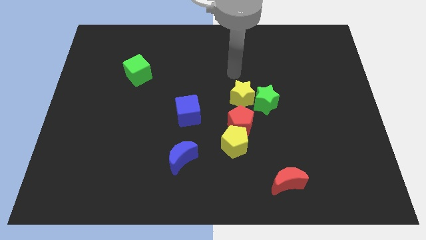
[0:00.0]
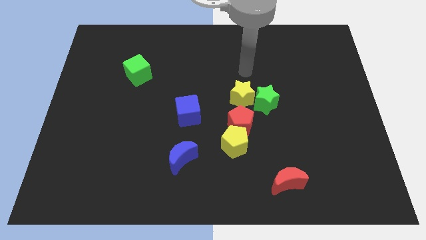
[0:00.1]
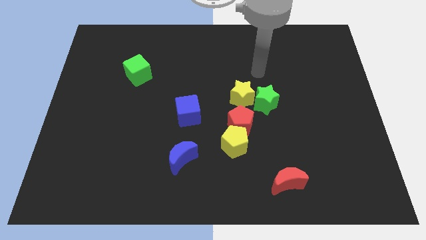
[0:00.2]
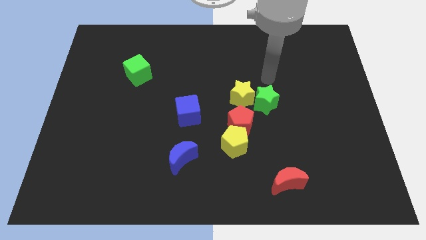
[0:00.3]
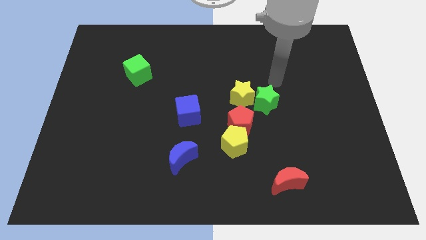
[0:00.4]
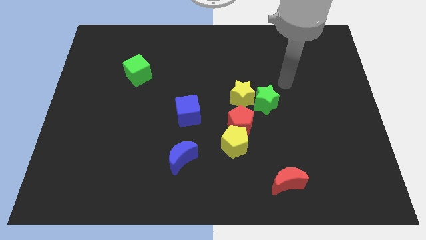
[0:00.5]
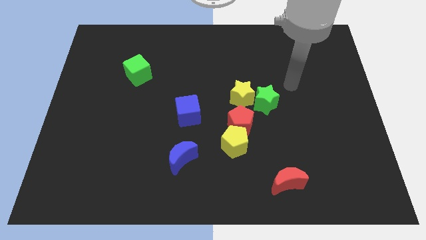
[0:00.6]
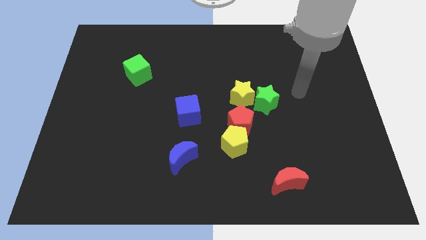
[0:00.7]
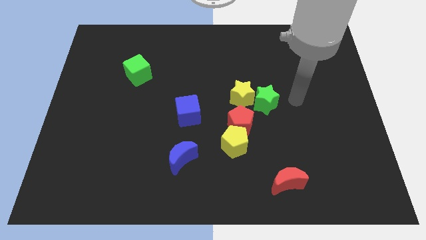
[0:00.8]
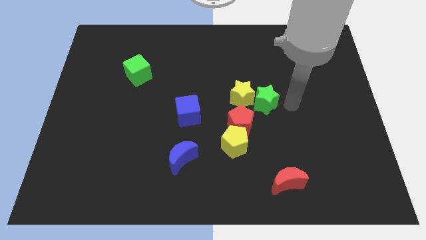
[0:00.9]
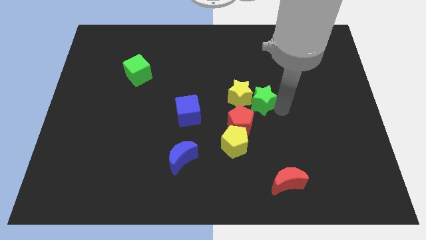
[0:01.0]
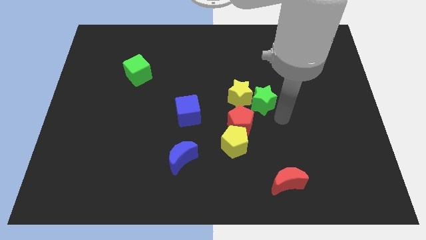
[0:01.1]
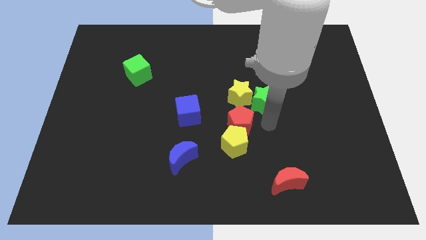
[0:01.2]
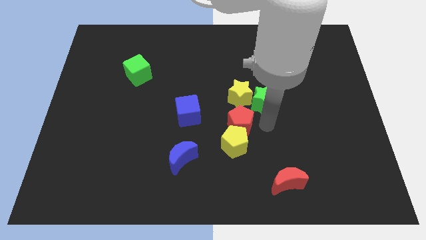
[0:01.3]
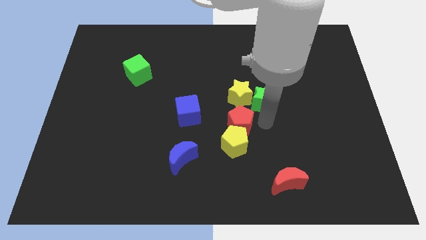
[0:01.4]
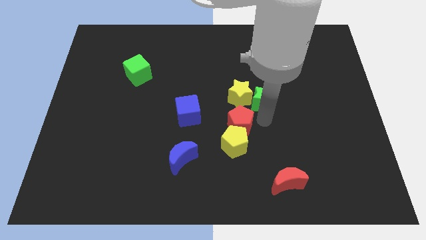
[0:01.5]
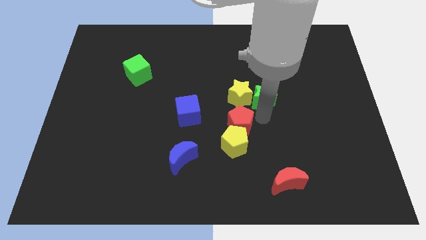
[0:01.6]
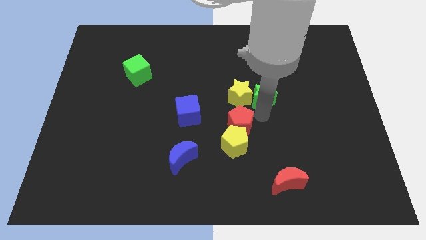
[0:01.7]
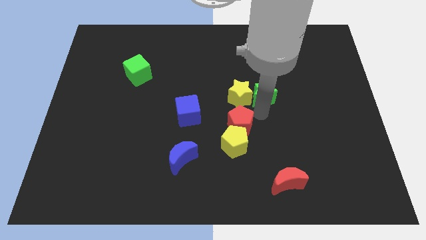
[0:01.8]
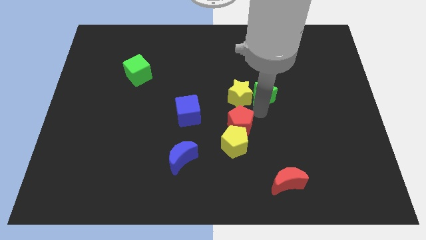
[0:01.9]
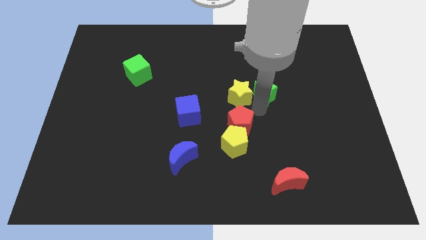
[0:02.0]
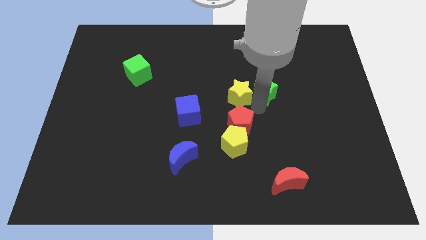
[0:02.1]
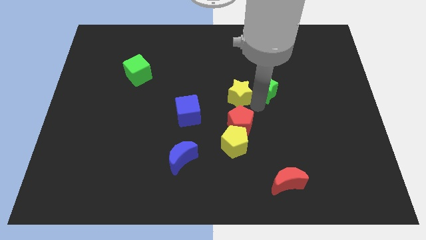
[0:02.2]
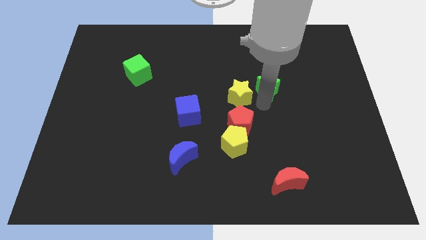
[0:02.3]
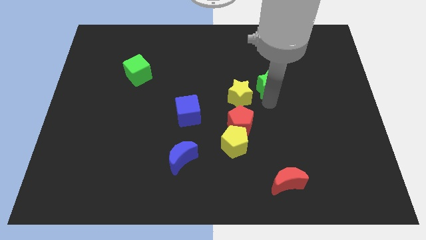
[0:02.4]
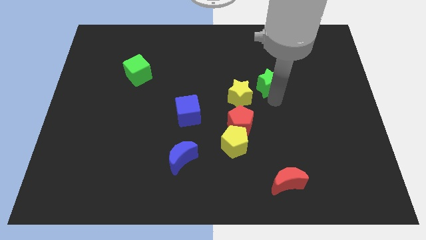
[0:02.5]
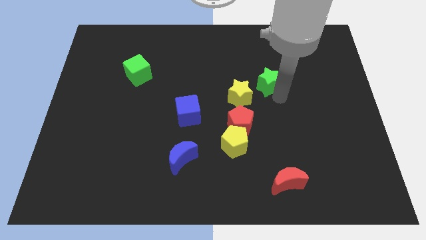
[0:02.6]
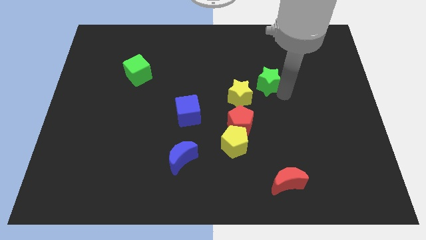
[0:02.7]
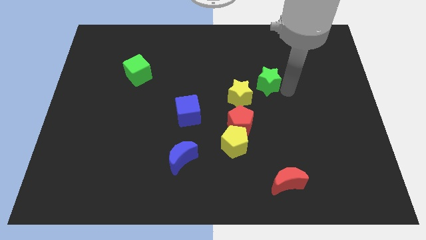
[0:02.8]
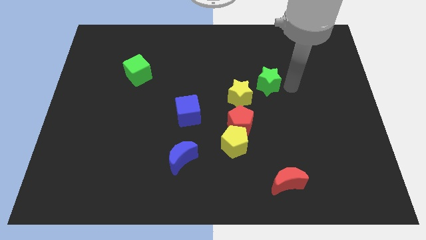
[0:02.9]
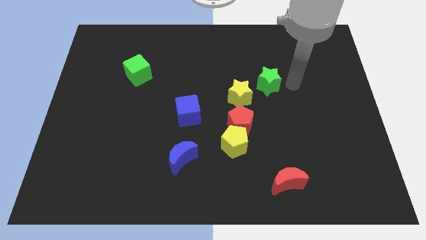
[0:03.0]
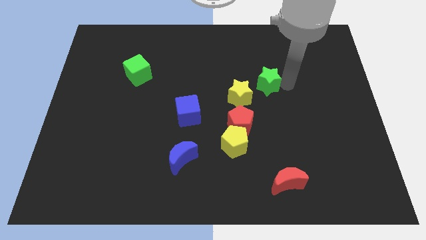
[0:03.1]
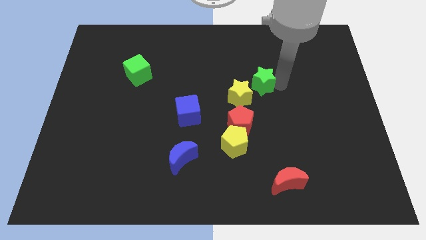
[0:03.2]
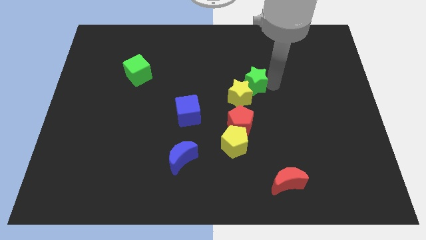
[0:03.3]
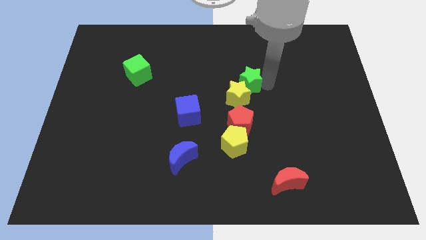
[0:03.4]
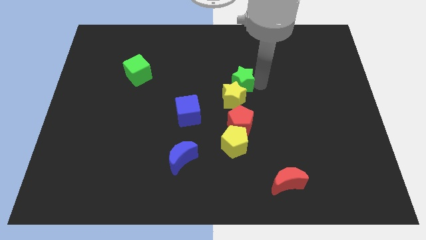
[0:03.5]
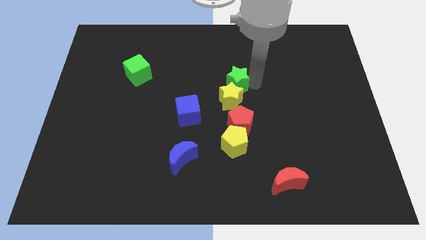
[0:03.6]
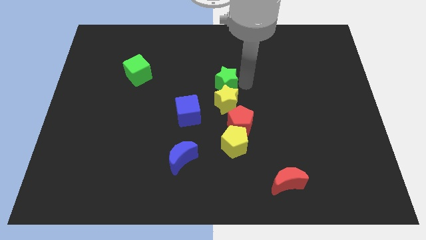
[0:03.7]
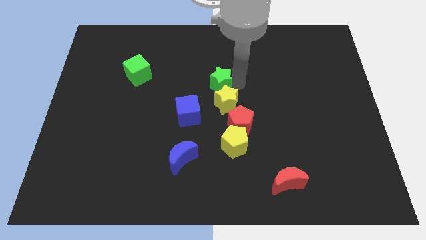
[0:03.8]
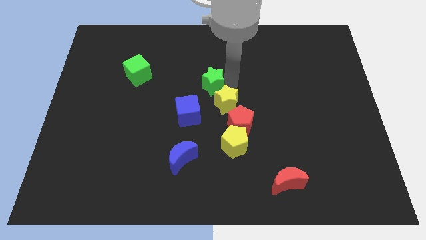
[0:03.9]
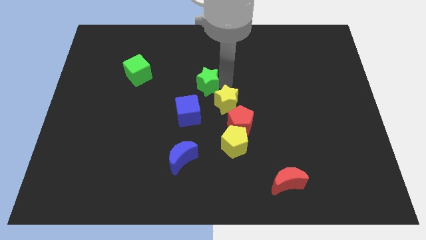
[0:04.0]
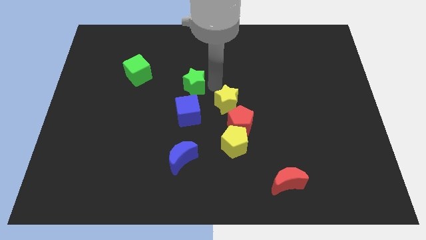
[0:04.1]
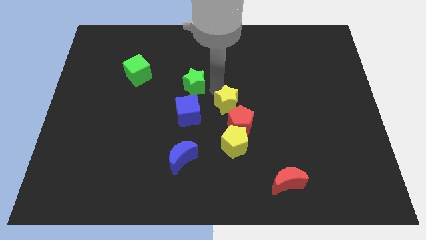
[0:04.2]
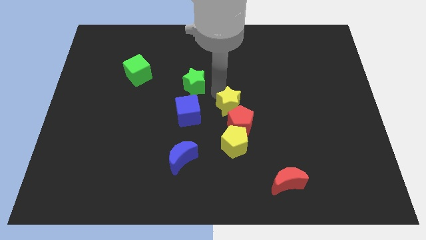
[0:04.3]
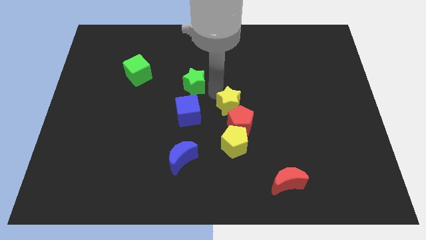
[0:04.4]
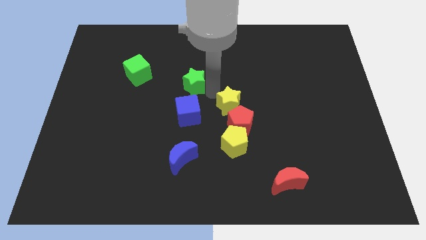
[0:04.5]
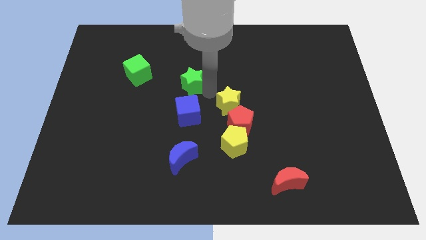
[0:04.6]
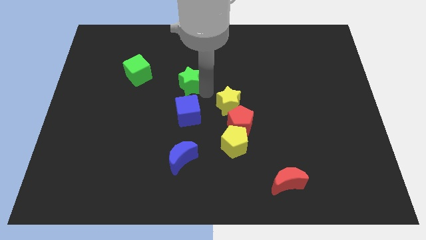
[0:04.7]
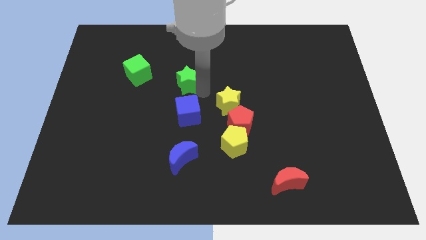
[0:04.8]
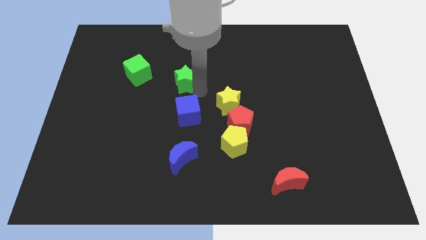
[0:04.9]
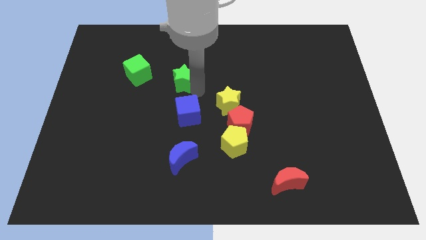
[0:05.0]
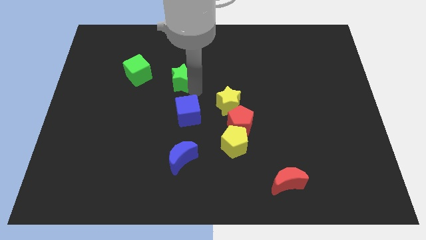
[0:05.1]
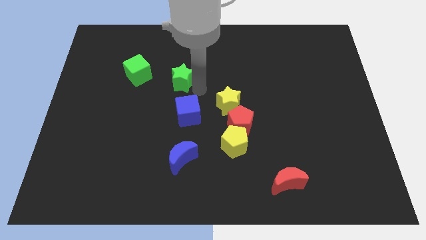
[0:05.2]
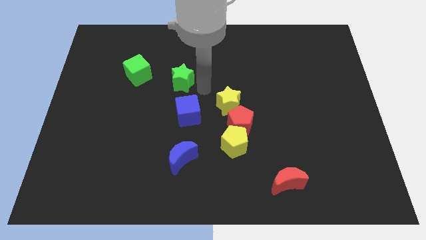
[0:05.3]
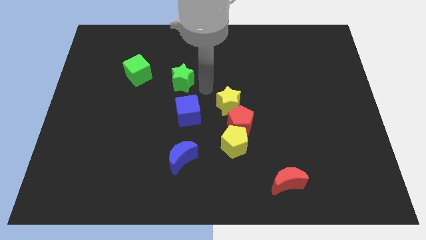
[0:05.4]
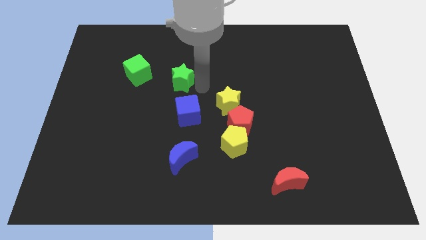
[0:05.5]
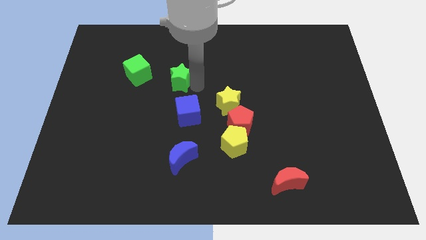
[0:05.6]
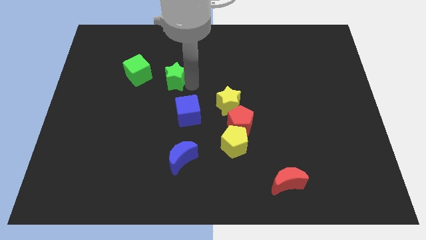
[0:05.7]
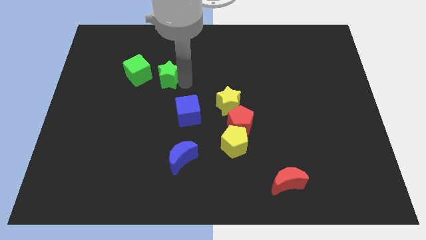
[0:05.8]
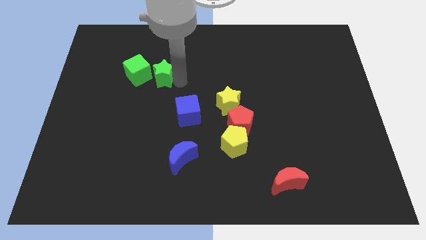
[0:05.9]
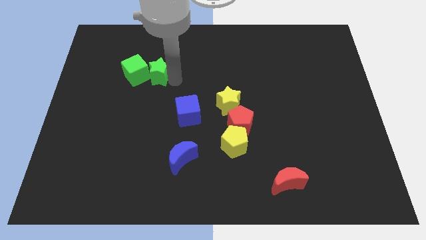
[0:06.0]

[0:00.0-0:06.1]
move the green star close to the green cube

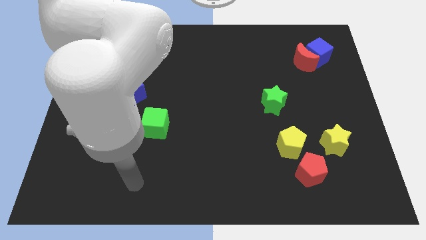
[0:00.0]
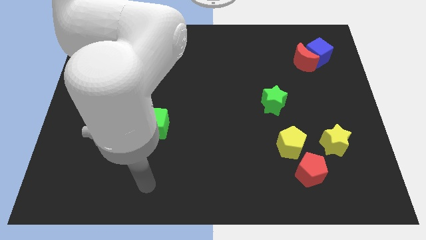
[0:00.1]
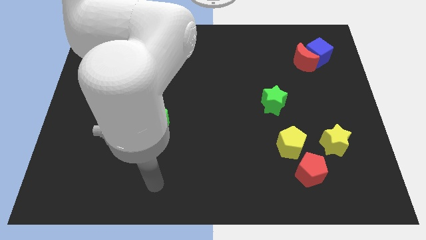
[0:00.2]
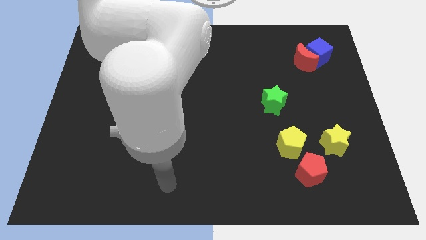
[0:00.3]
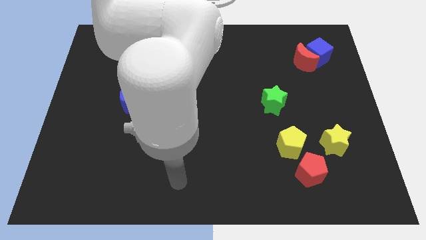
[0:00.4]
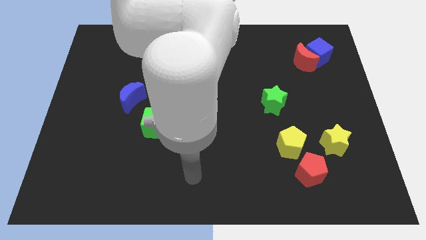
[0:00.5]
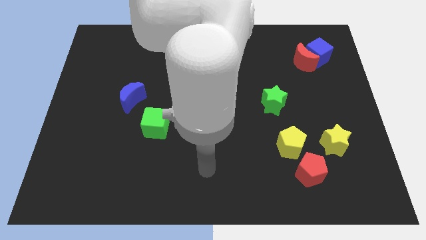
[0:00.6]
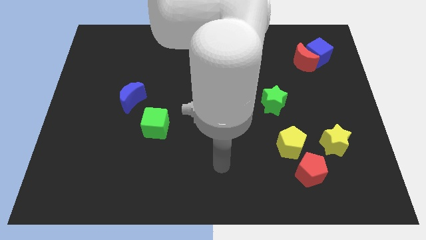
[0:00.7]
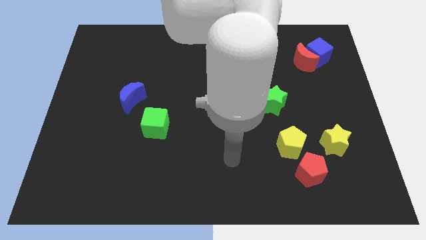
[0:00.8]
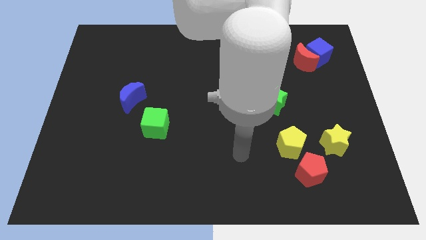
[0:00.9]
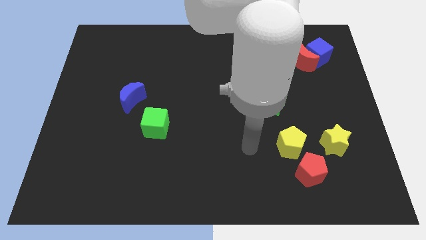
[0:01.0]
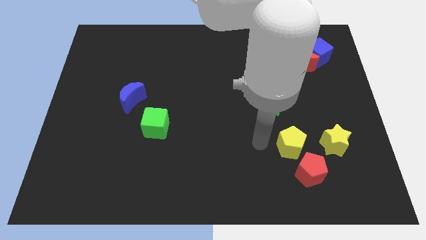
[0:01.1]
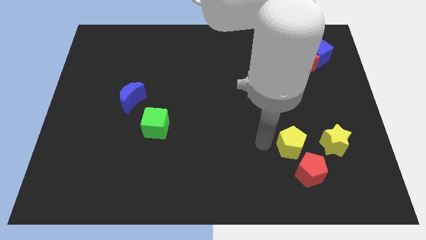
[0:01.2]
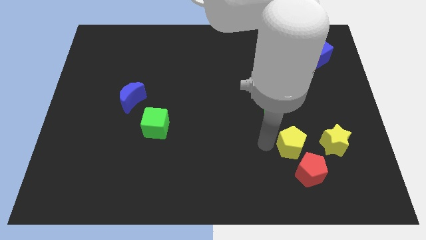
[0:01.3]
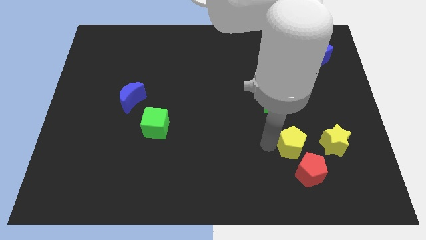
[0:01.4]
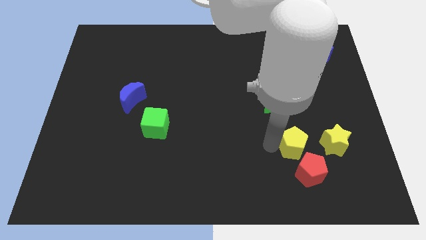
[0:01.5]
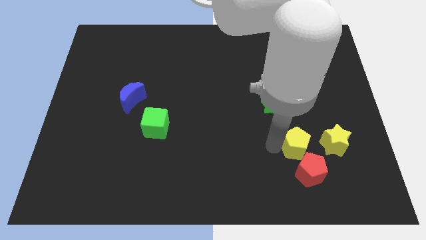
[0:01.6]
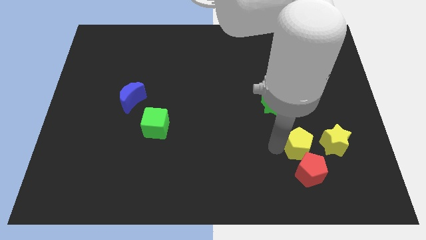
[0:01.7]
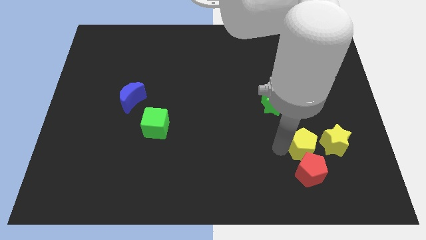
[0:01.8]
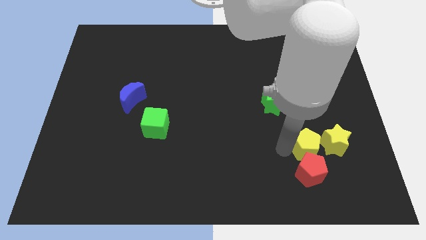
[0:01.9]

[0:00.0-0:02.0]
slide the yellow pentagon next to the yellow star
